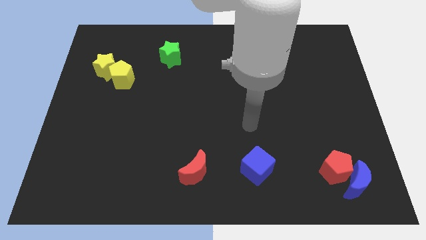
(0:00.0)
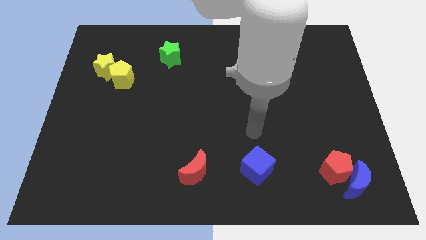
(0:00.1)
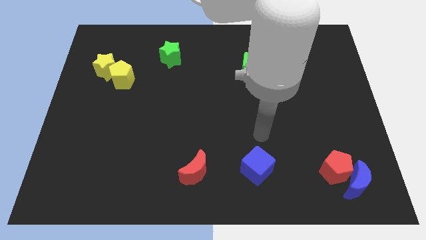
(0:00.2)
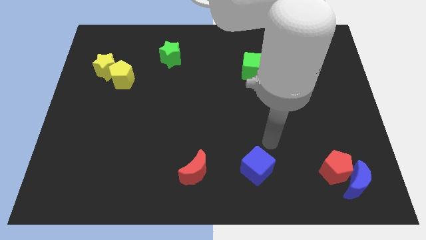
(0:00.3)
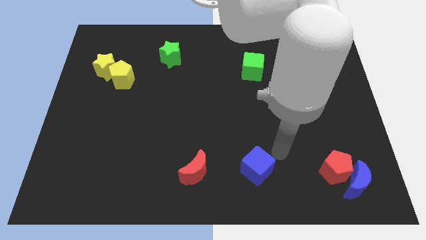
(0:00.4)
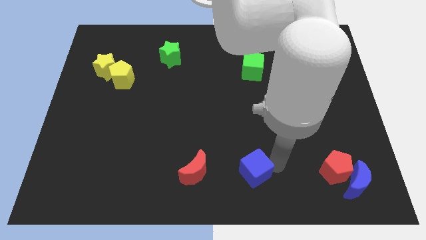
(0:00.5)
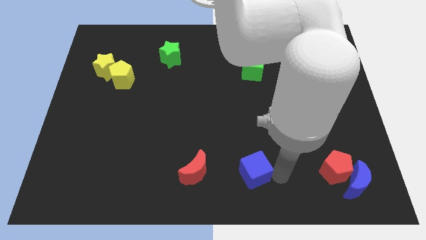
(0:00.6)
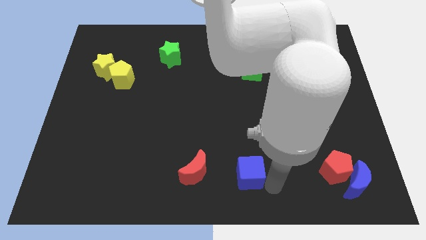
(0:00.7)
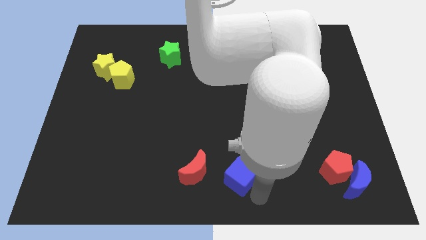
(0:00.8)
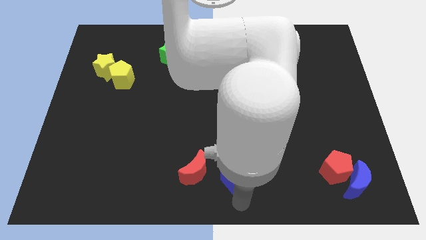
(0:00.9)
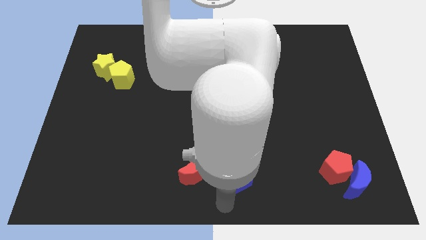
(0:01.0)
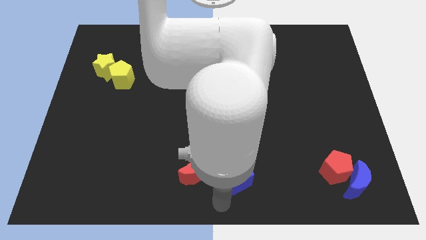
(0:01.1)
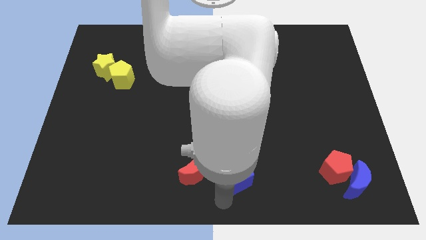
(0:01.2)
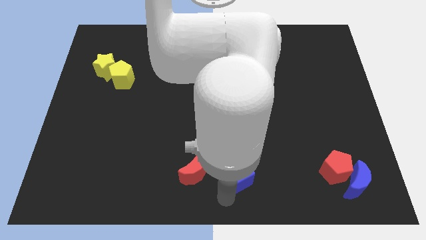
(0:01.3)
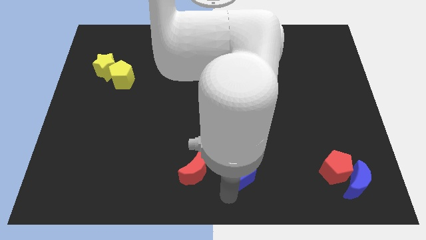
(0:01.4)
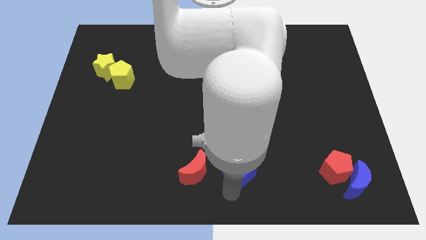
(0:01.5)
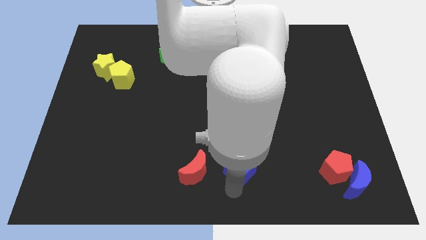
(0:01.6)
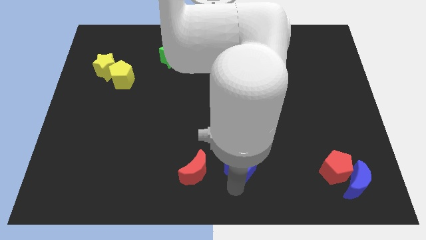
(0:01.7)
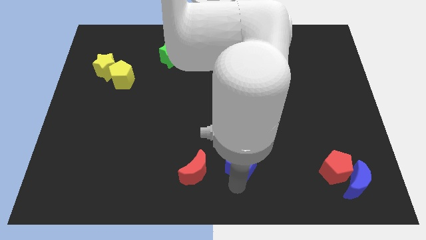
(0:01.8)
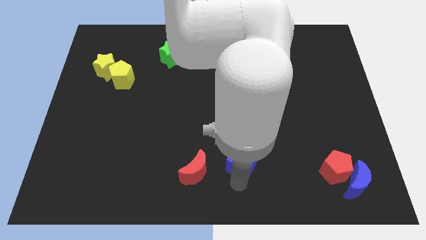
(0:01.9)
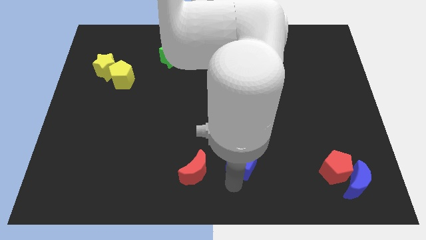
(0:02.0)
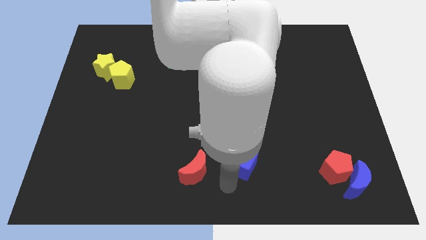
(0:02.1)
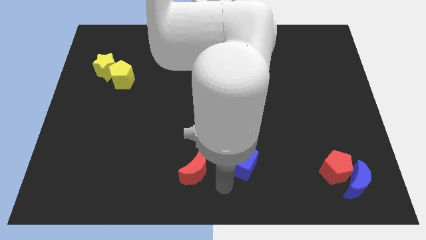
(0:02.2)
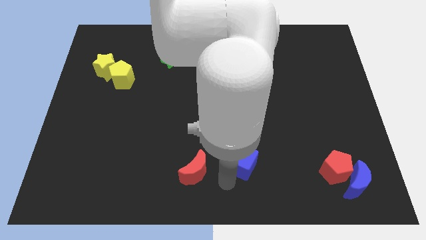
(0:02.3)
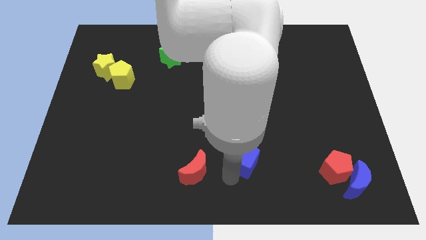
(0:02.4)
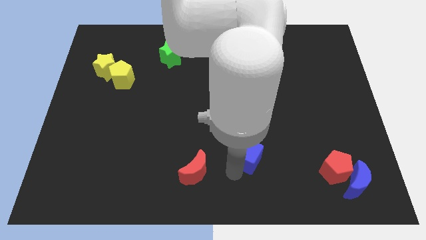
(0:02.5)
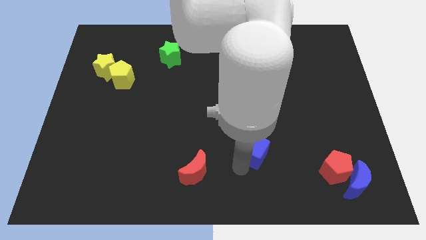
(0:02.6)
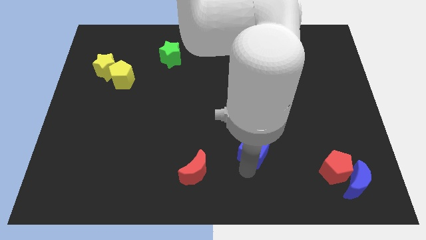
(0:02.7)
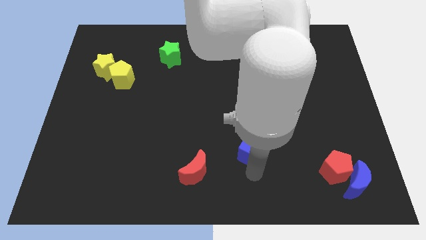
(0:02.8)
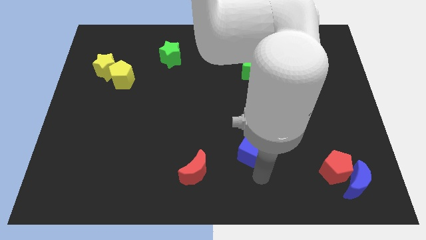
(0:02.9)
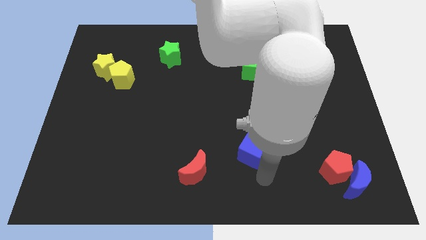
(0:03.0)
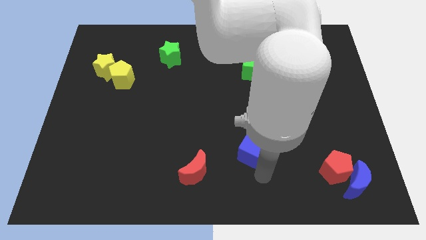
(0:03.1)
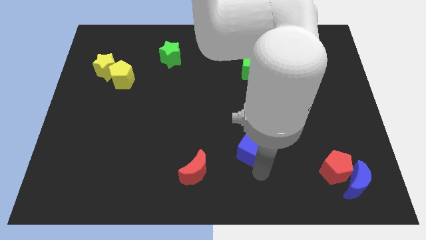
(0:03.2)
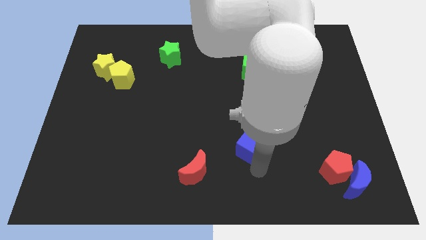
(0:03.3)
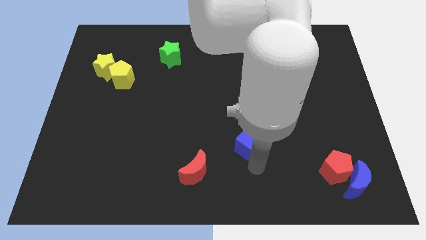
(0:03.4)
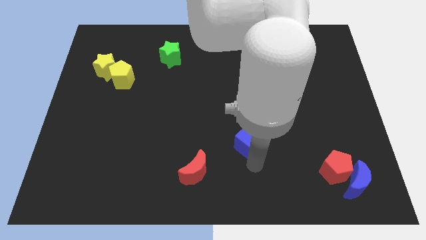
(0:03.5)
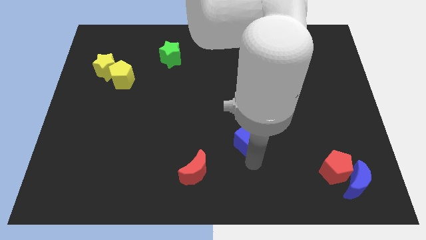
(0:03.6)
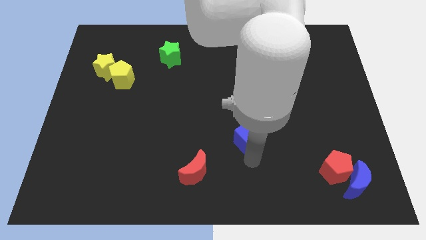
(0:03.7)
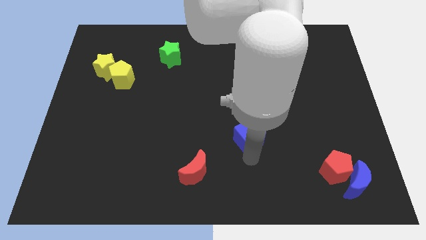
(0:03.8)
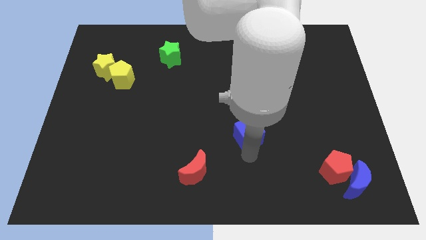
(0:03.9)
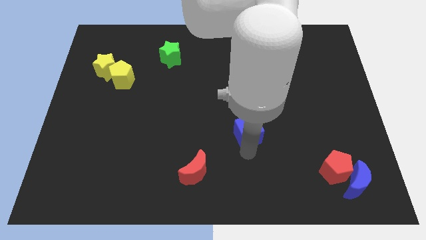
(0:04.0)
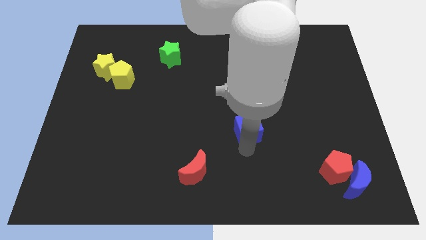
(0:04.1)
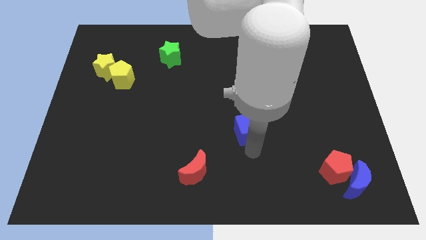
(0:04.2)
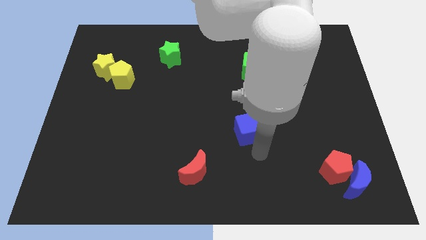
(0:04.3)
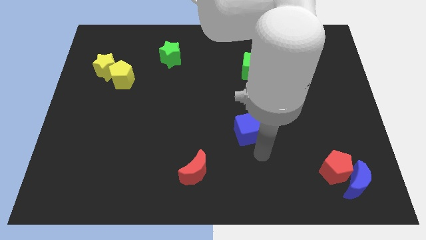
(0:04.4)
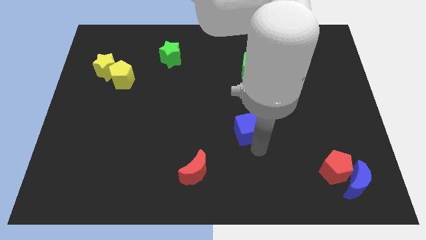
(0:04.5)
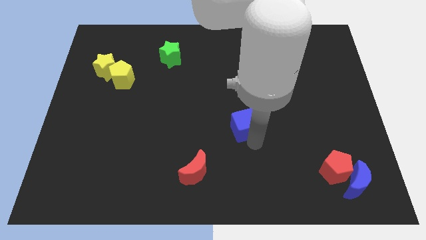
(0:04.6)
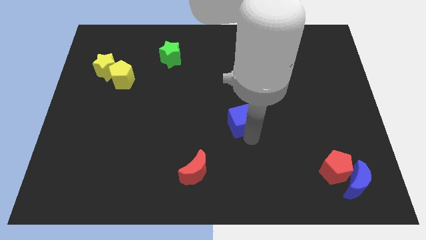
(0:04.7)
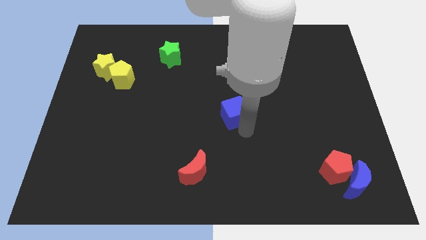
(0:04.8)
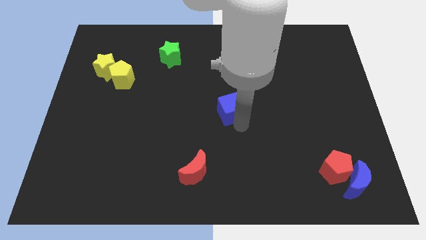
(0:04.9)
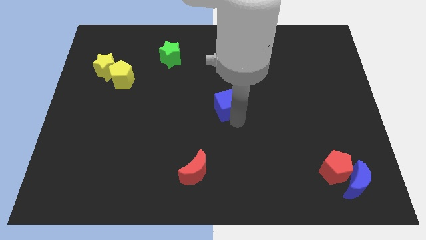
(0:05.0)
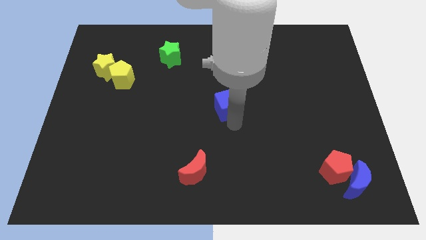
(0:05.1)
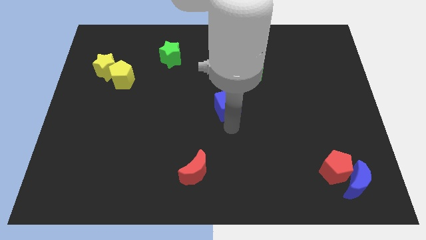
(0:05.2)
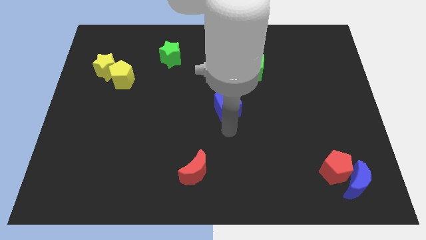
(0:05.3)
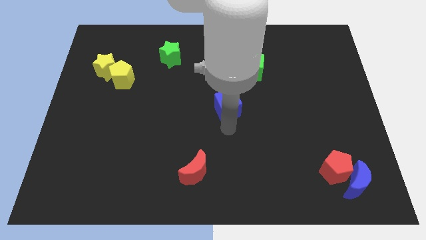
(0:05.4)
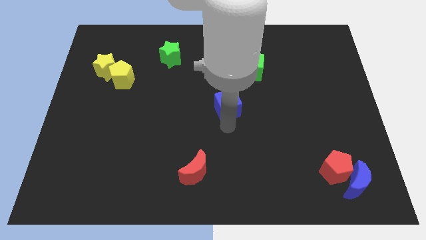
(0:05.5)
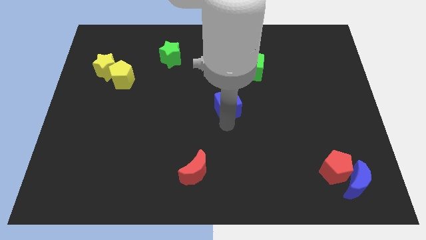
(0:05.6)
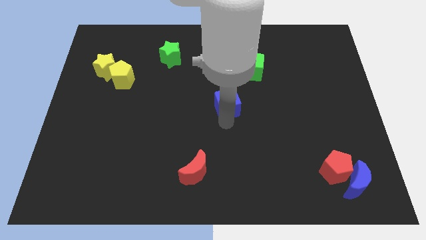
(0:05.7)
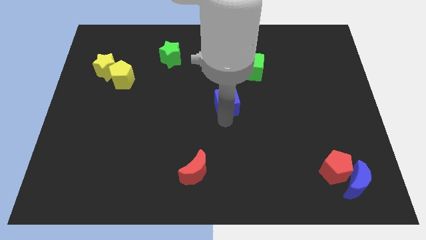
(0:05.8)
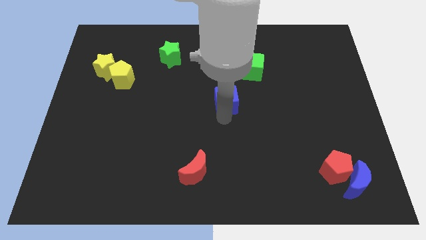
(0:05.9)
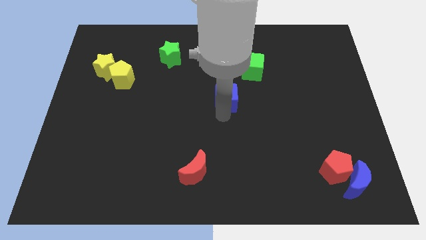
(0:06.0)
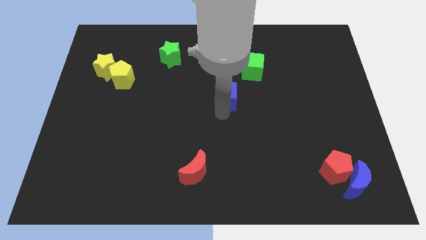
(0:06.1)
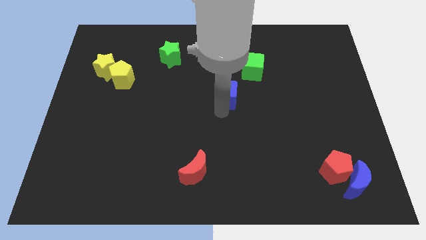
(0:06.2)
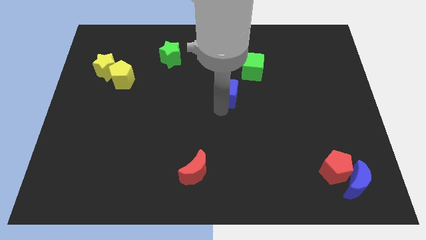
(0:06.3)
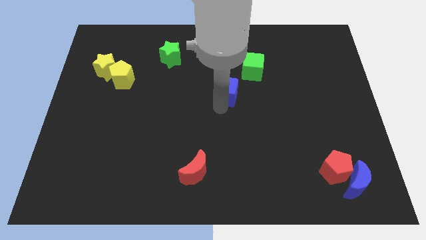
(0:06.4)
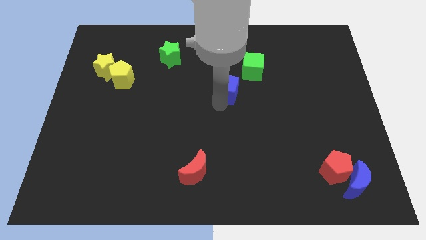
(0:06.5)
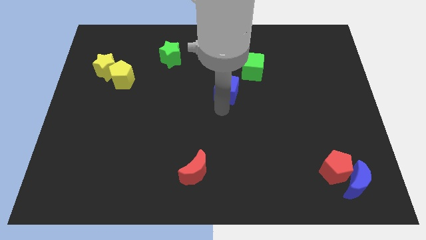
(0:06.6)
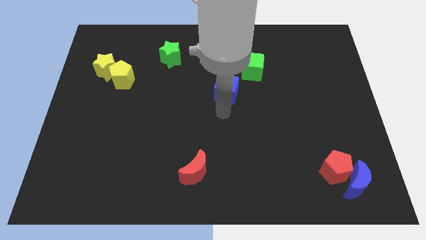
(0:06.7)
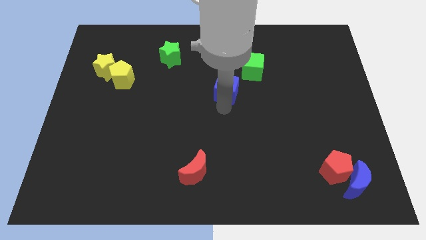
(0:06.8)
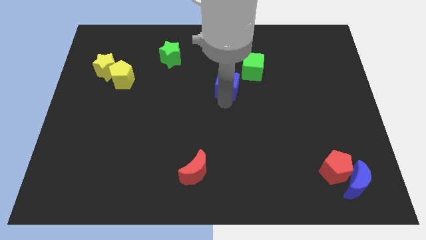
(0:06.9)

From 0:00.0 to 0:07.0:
move the blue cube up

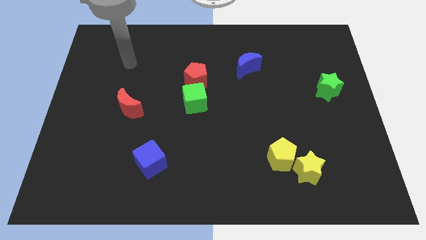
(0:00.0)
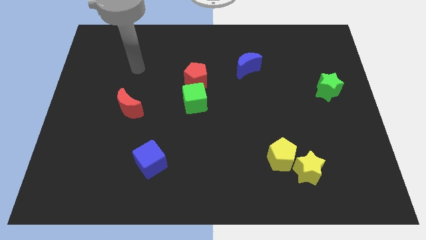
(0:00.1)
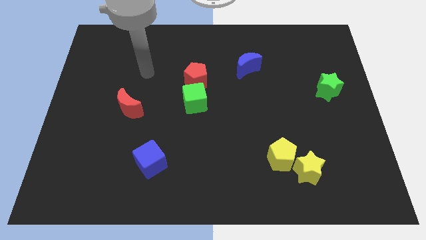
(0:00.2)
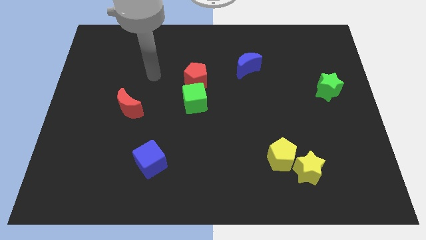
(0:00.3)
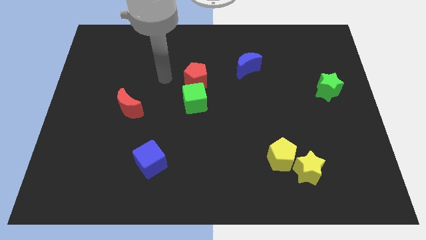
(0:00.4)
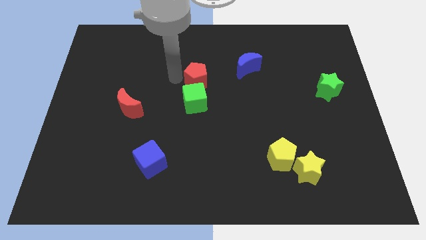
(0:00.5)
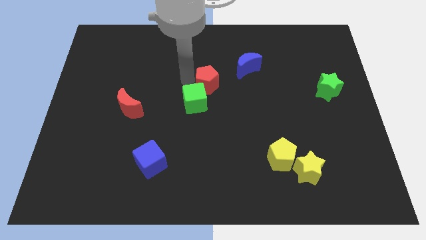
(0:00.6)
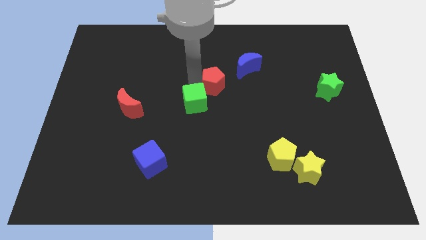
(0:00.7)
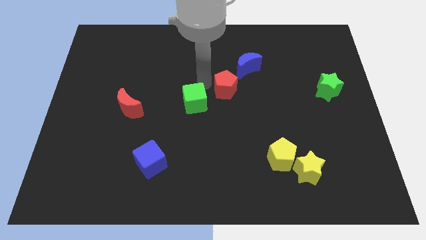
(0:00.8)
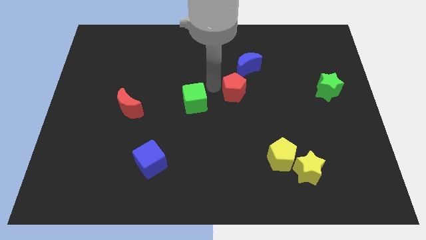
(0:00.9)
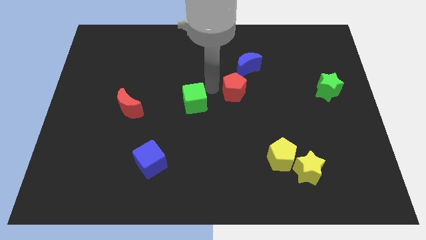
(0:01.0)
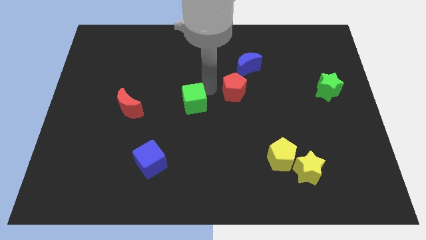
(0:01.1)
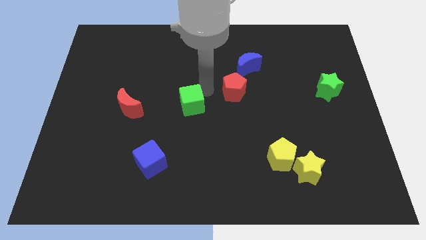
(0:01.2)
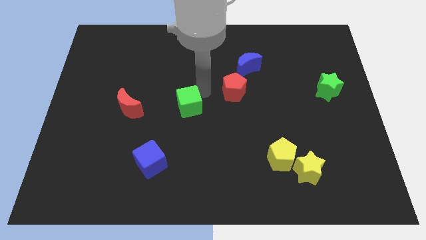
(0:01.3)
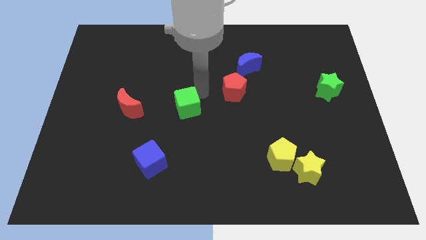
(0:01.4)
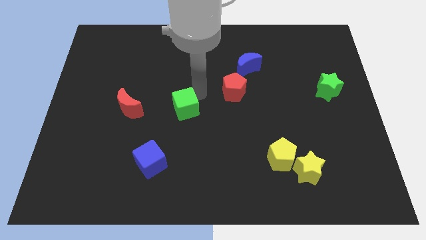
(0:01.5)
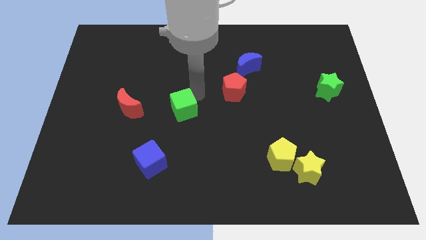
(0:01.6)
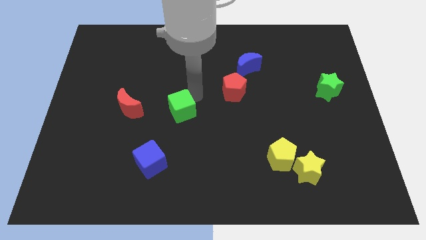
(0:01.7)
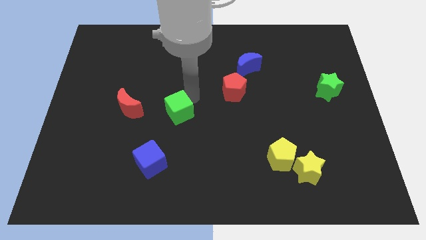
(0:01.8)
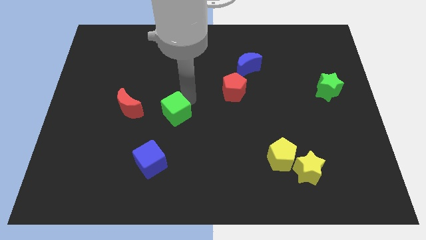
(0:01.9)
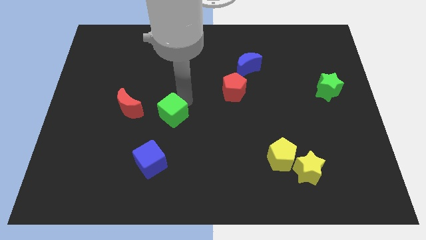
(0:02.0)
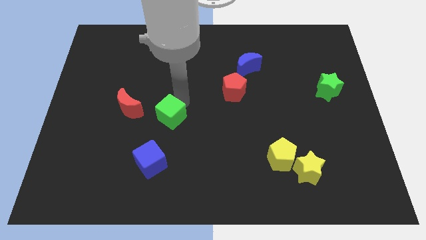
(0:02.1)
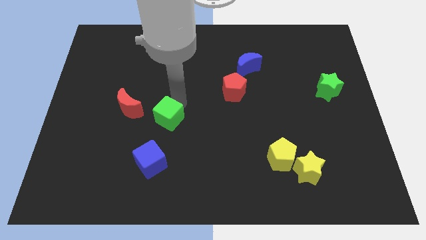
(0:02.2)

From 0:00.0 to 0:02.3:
slide the green cube diagonally down and to the left slightly
